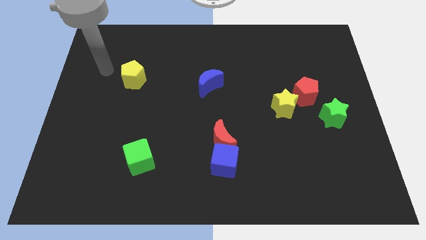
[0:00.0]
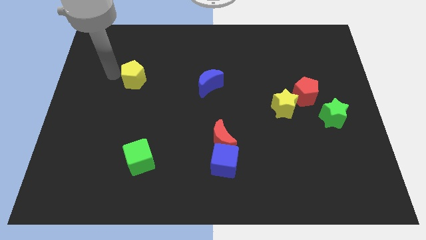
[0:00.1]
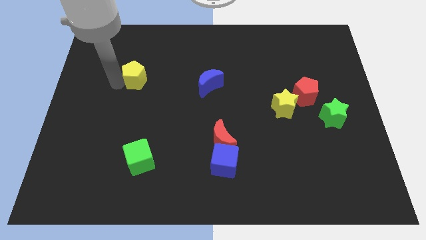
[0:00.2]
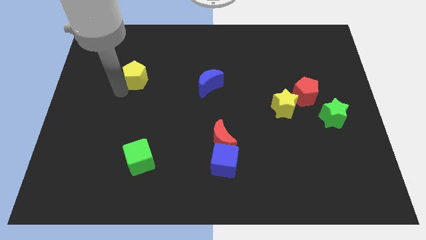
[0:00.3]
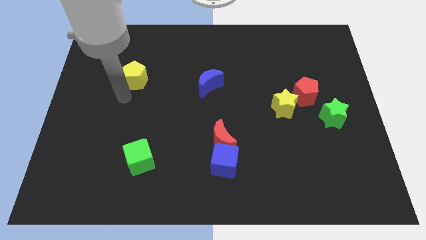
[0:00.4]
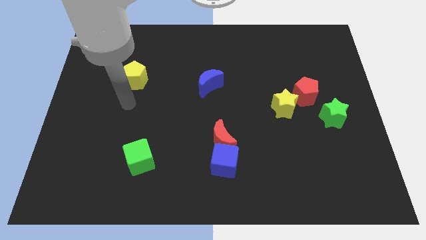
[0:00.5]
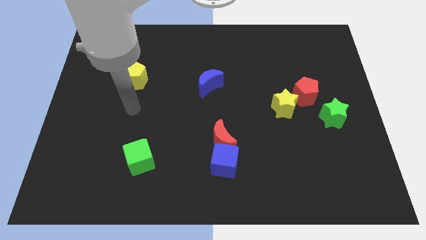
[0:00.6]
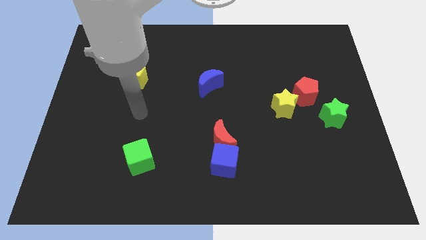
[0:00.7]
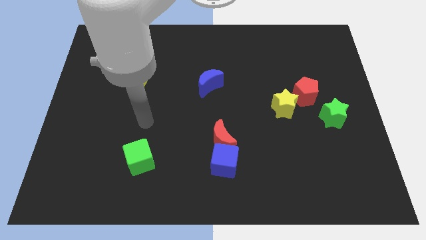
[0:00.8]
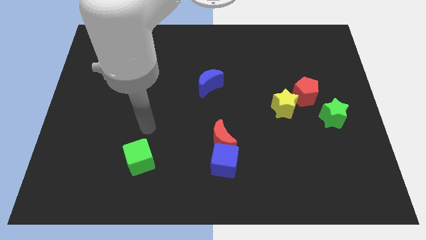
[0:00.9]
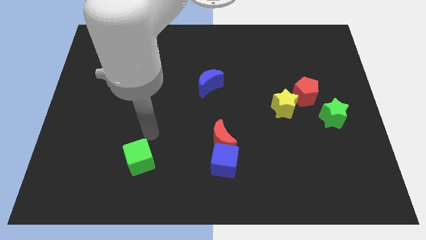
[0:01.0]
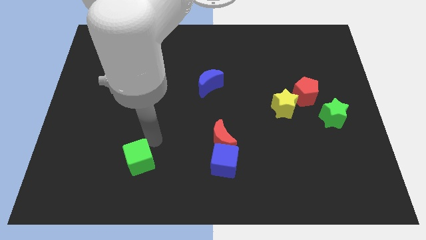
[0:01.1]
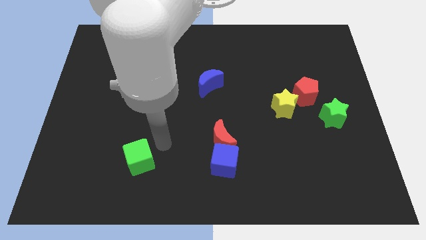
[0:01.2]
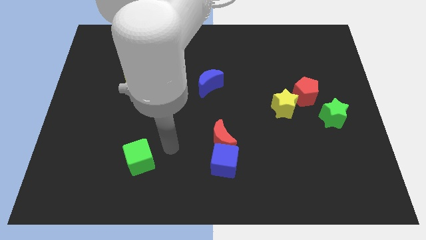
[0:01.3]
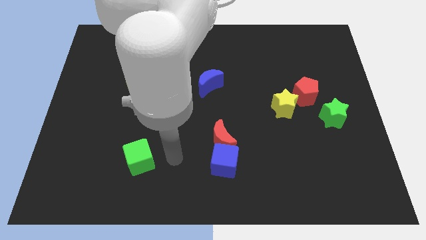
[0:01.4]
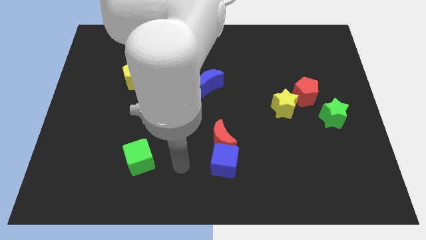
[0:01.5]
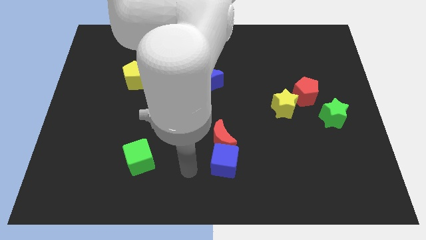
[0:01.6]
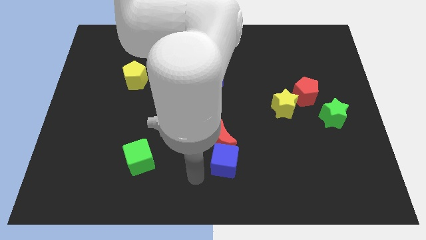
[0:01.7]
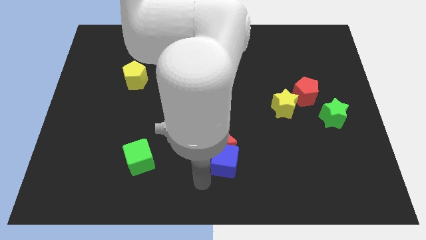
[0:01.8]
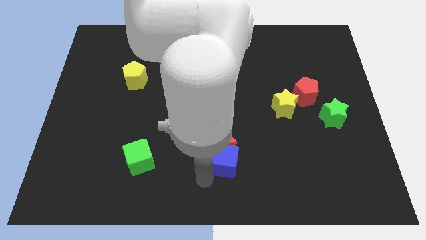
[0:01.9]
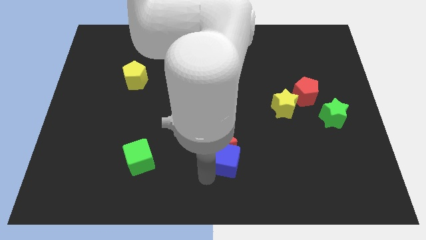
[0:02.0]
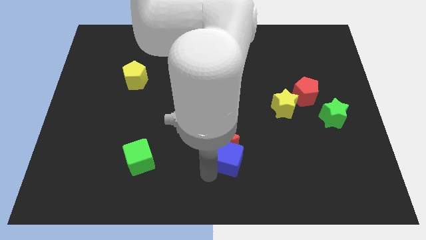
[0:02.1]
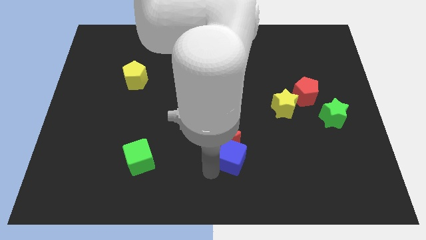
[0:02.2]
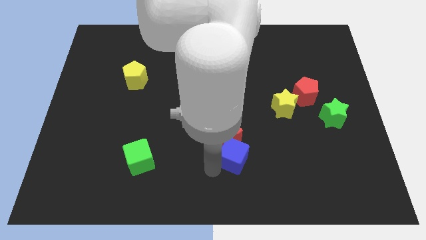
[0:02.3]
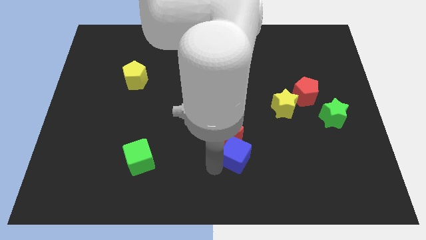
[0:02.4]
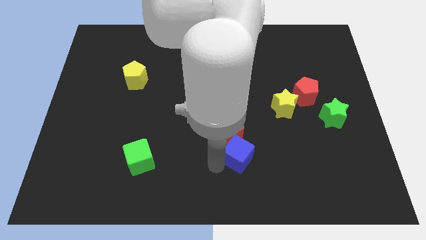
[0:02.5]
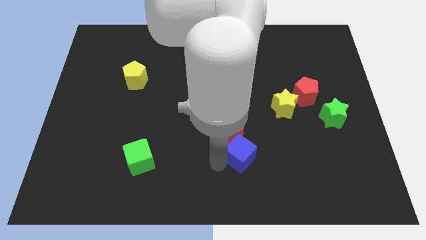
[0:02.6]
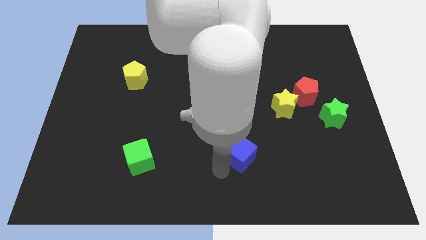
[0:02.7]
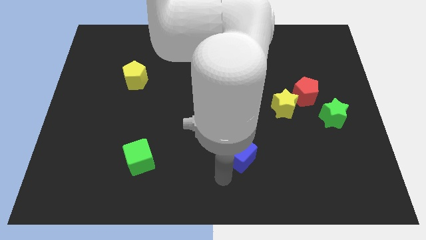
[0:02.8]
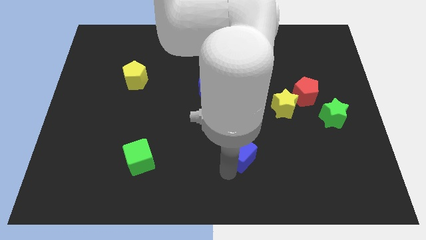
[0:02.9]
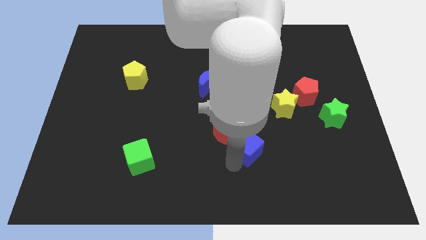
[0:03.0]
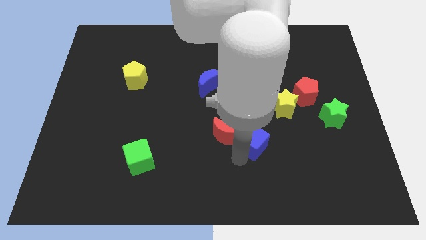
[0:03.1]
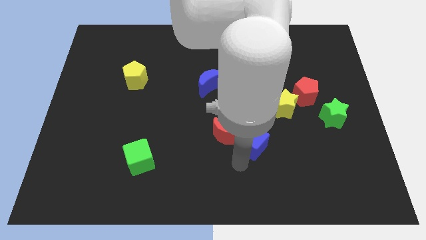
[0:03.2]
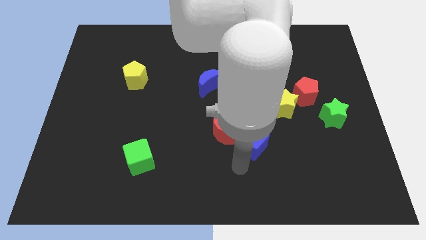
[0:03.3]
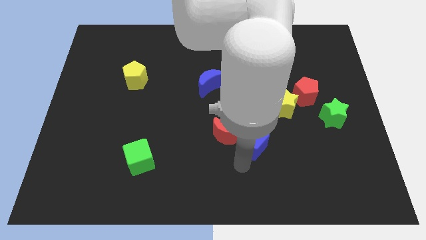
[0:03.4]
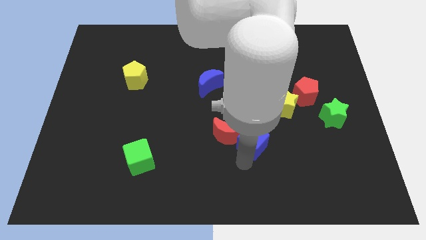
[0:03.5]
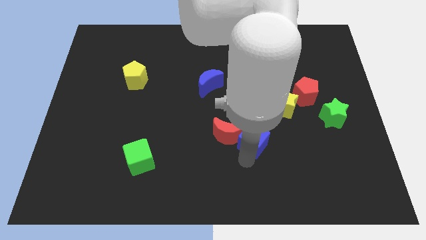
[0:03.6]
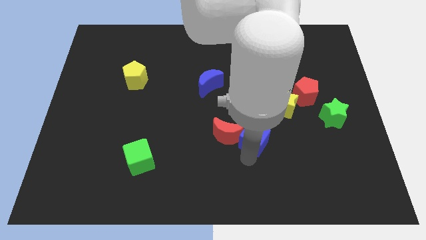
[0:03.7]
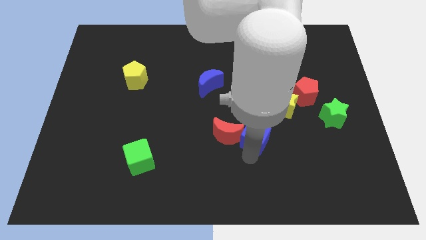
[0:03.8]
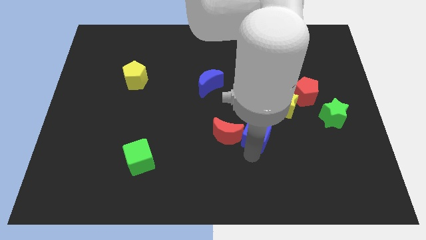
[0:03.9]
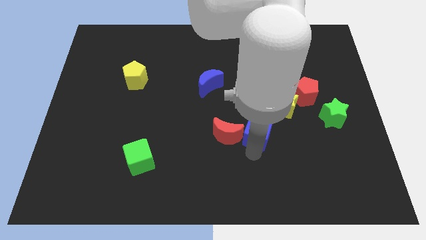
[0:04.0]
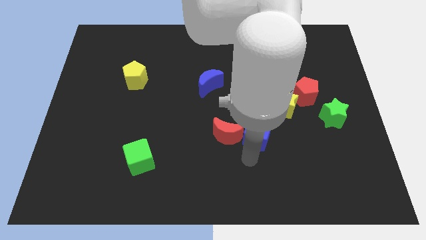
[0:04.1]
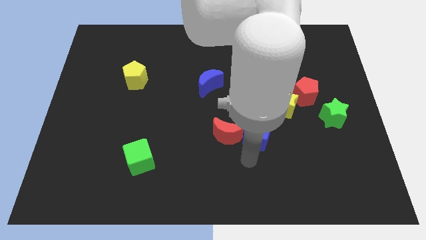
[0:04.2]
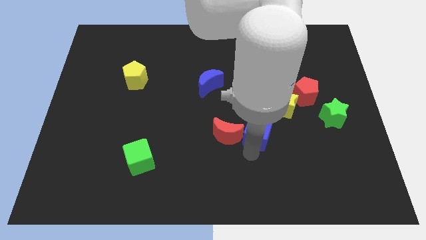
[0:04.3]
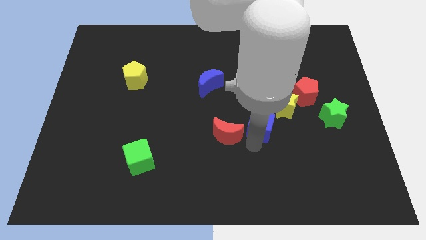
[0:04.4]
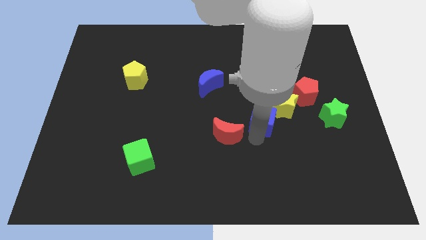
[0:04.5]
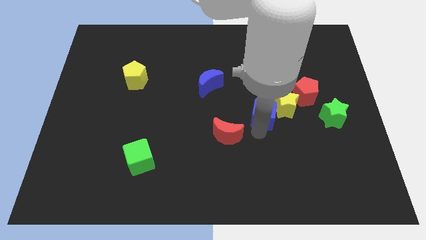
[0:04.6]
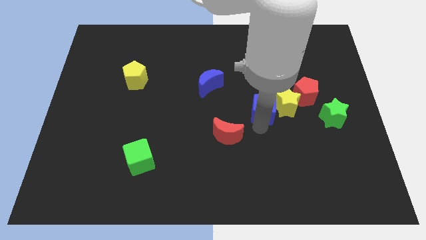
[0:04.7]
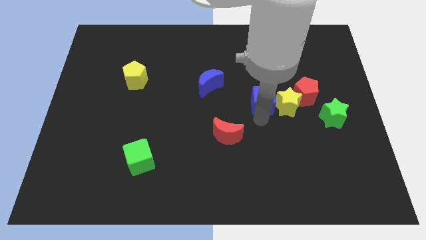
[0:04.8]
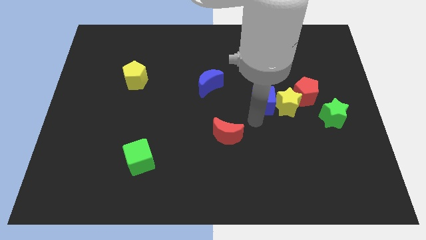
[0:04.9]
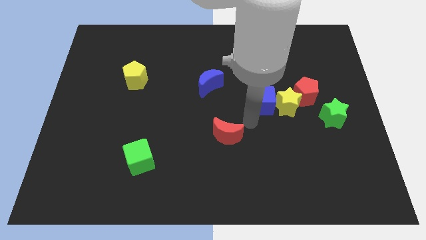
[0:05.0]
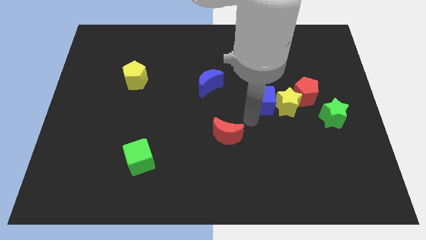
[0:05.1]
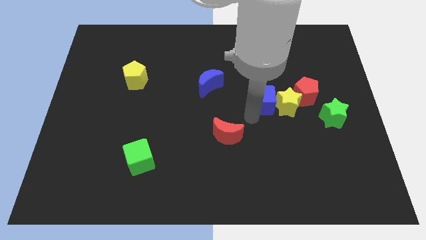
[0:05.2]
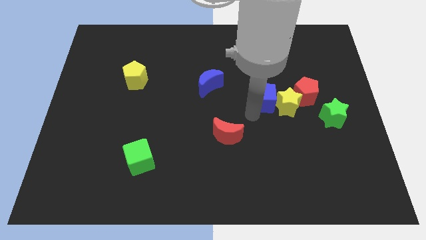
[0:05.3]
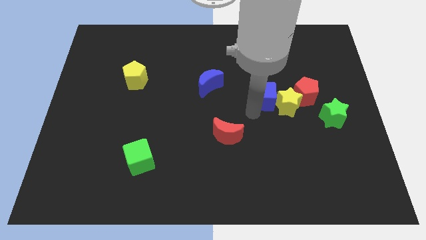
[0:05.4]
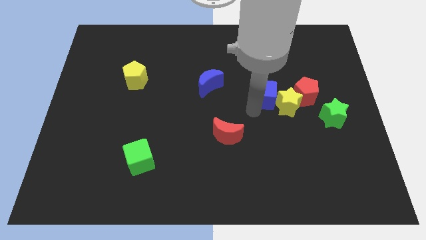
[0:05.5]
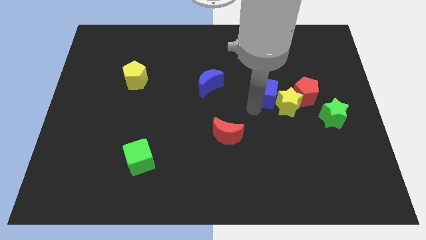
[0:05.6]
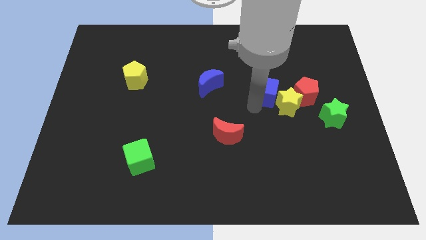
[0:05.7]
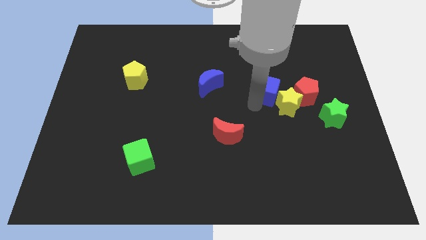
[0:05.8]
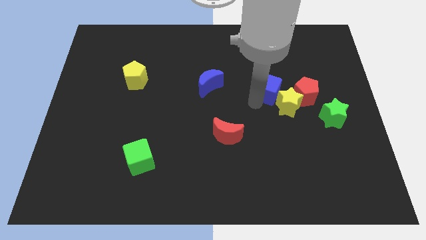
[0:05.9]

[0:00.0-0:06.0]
push the blue cube diagonally up and to the right

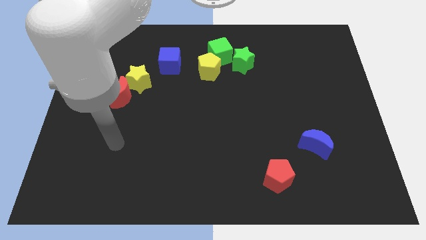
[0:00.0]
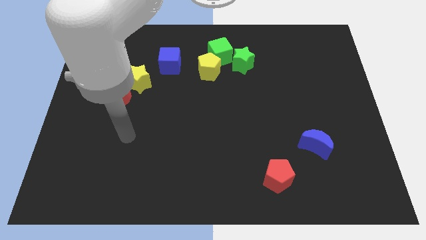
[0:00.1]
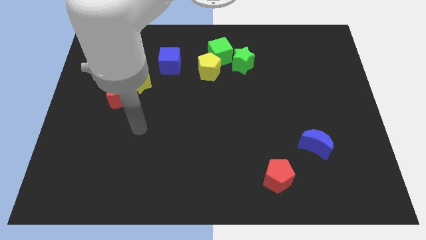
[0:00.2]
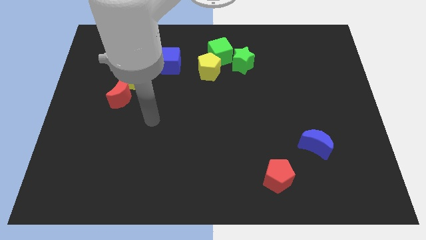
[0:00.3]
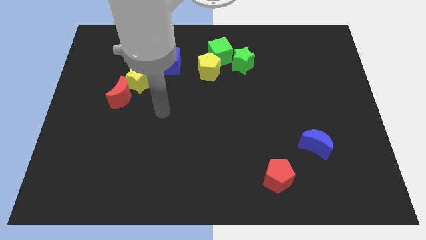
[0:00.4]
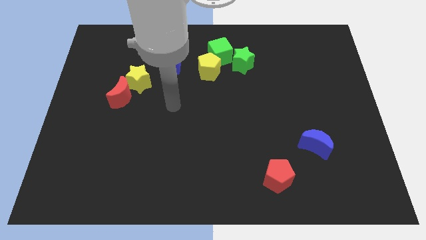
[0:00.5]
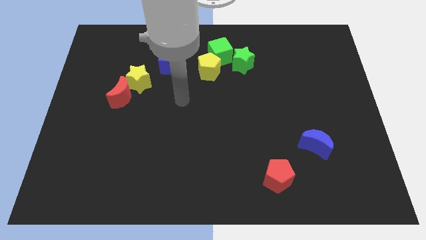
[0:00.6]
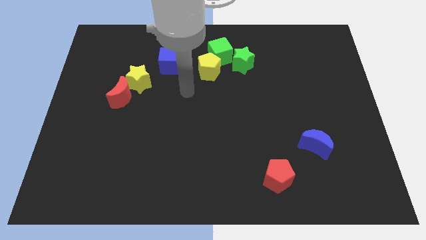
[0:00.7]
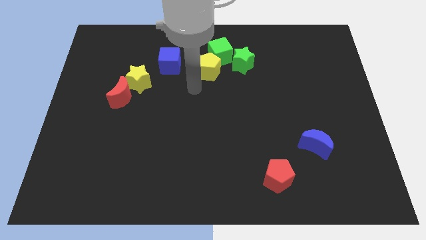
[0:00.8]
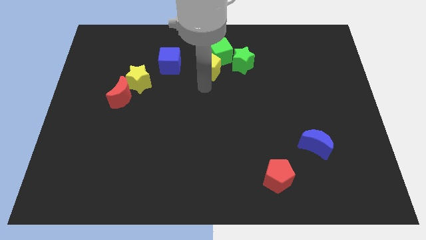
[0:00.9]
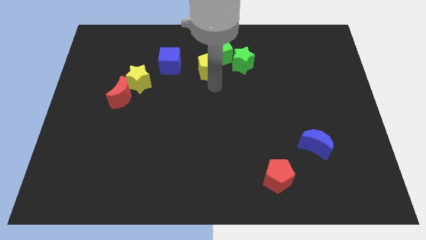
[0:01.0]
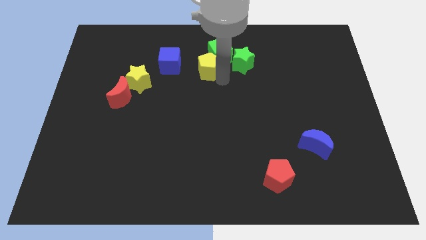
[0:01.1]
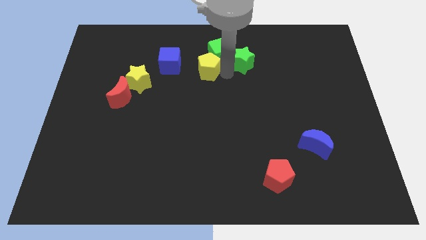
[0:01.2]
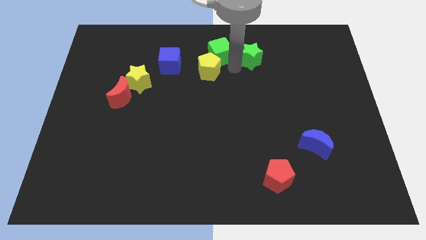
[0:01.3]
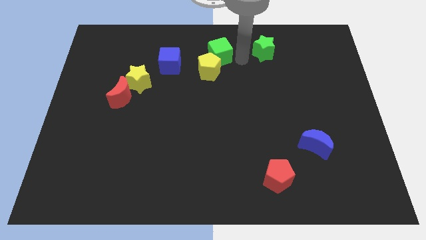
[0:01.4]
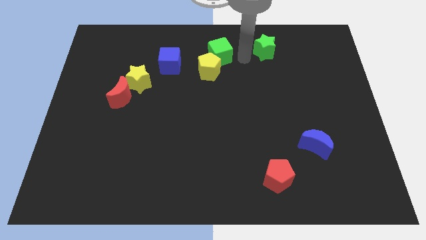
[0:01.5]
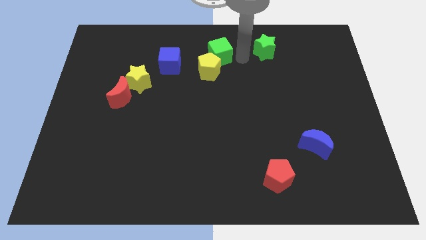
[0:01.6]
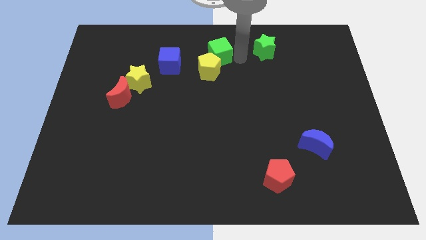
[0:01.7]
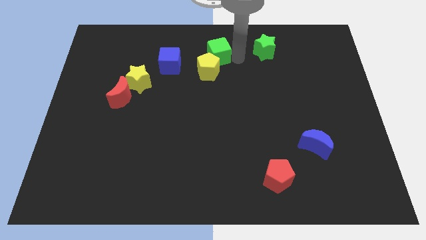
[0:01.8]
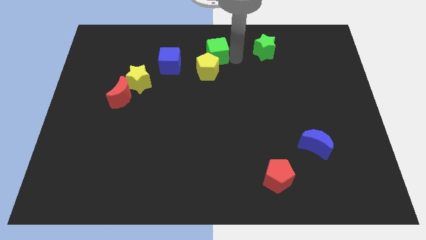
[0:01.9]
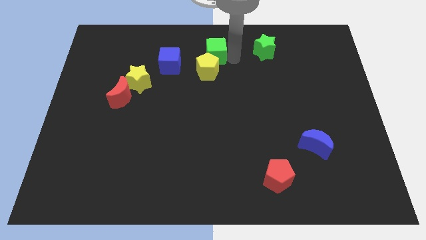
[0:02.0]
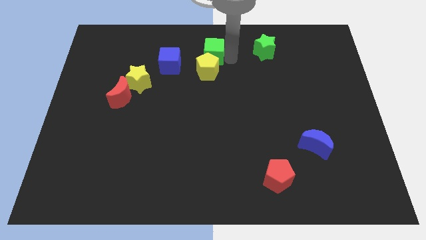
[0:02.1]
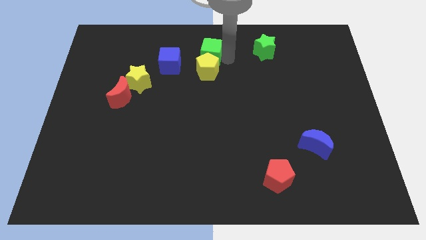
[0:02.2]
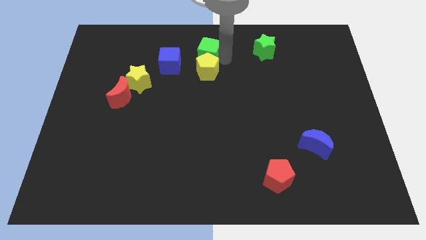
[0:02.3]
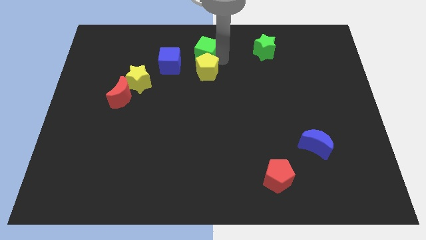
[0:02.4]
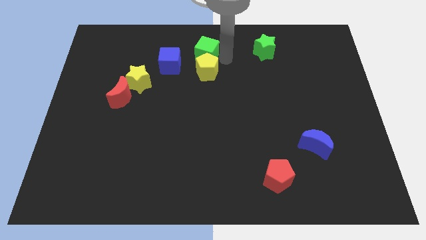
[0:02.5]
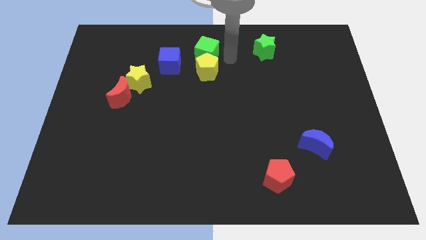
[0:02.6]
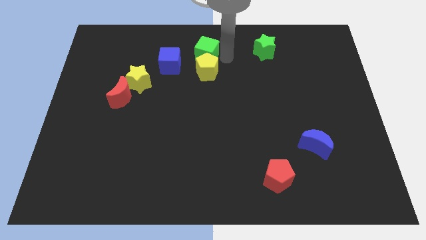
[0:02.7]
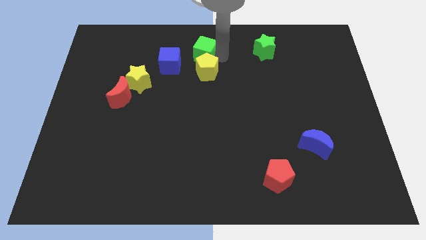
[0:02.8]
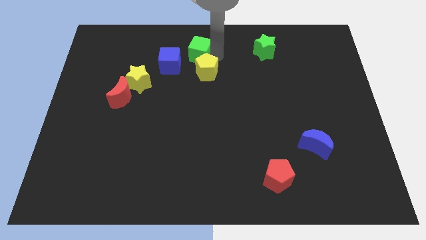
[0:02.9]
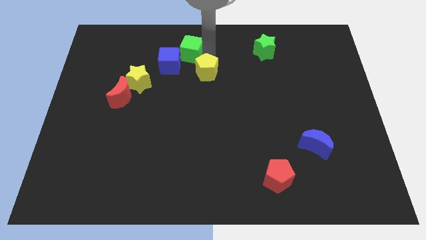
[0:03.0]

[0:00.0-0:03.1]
slightly push the green cube left
